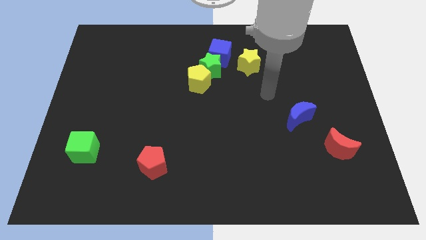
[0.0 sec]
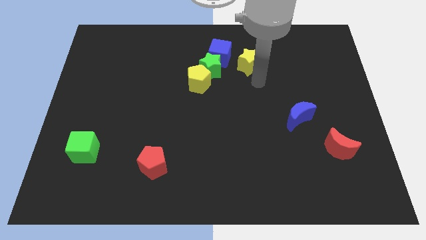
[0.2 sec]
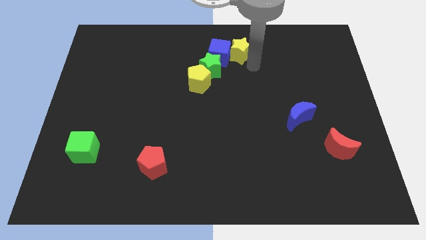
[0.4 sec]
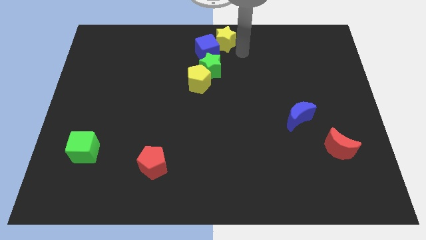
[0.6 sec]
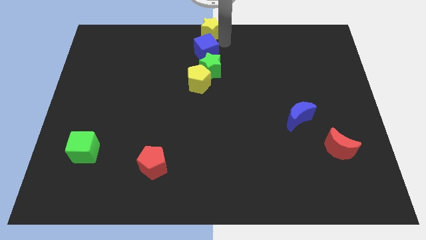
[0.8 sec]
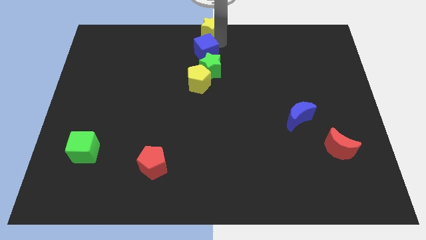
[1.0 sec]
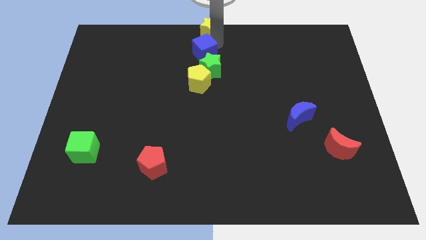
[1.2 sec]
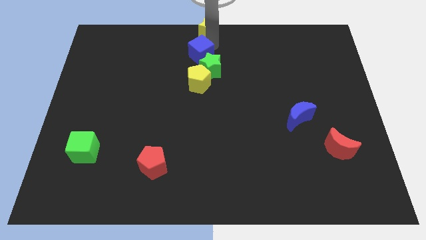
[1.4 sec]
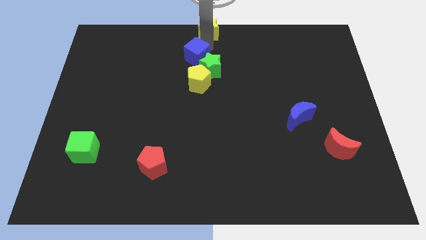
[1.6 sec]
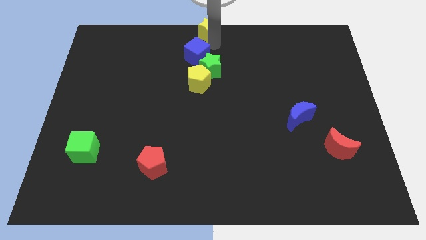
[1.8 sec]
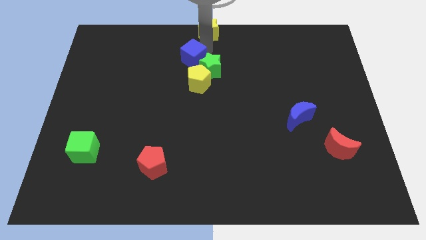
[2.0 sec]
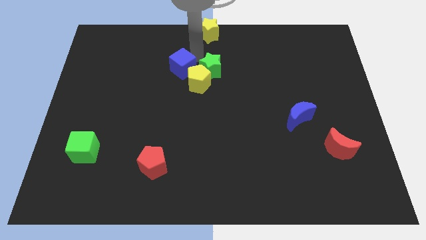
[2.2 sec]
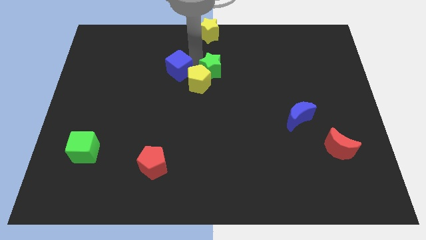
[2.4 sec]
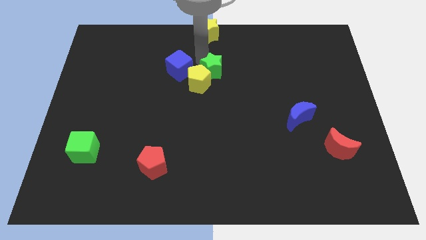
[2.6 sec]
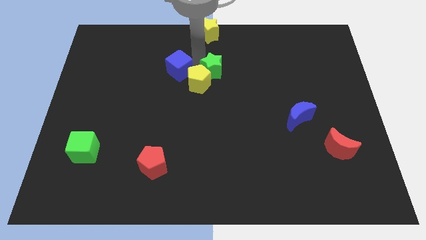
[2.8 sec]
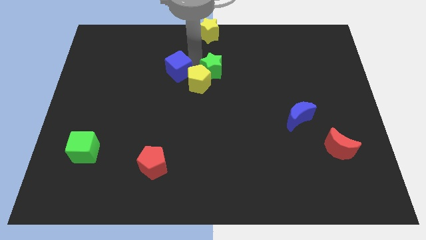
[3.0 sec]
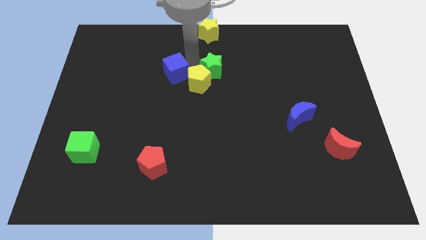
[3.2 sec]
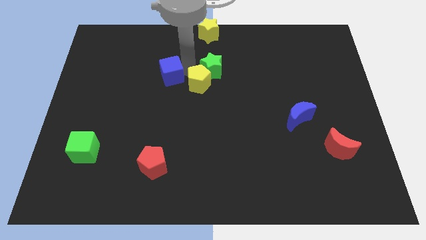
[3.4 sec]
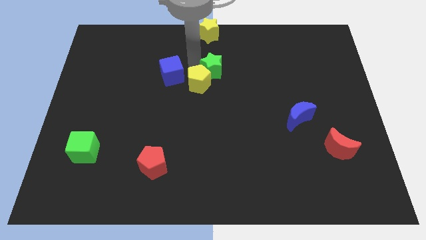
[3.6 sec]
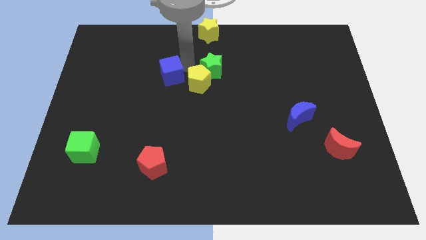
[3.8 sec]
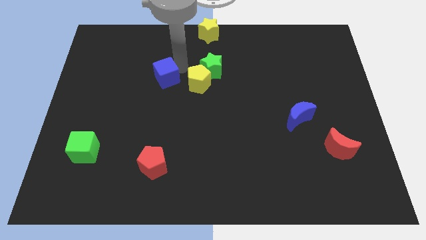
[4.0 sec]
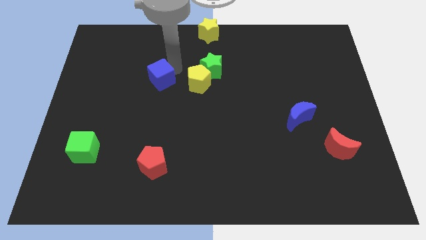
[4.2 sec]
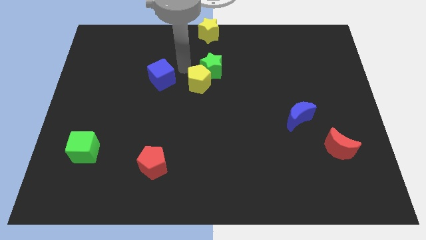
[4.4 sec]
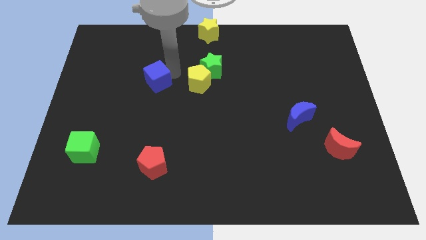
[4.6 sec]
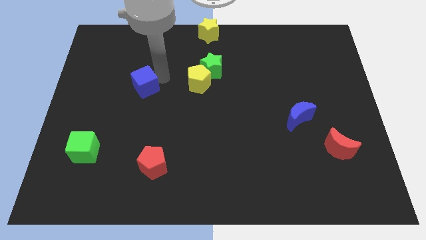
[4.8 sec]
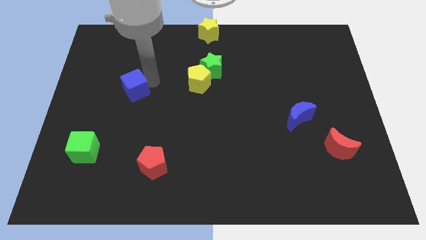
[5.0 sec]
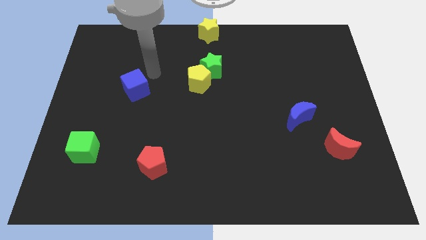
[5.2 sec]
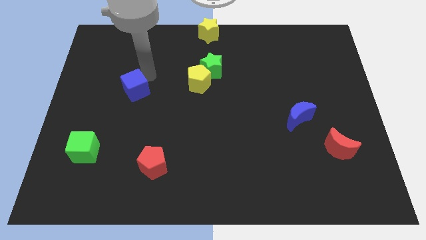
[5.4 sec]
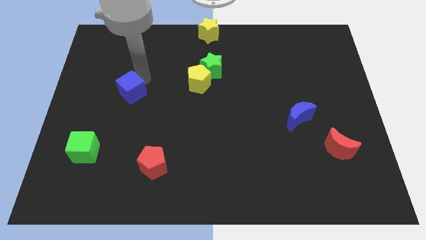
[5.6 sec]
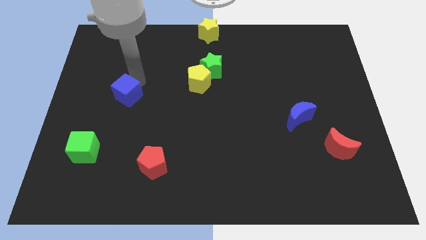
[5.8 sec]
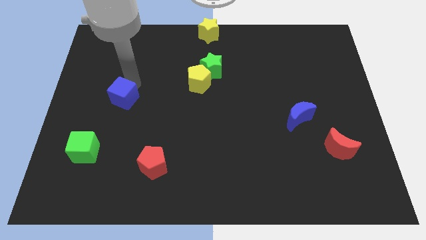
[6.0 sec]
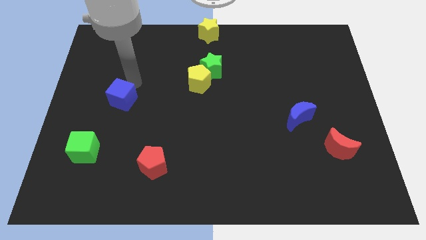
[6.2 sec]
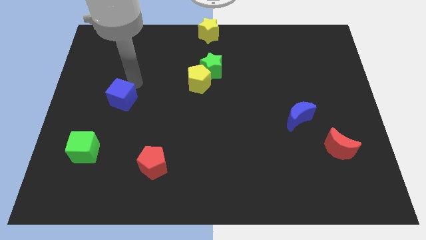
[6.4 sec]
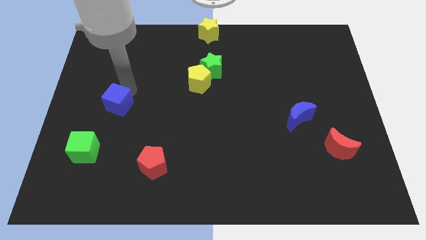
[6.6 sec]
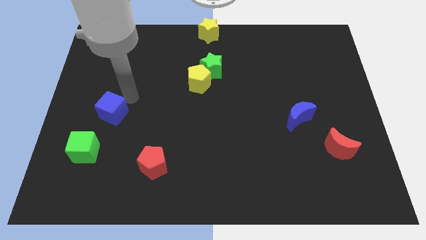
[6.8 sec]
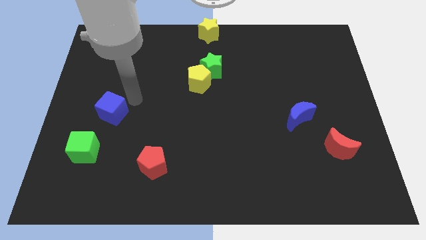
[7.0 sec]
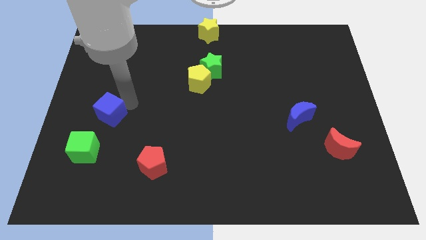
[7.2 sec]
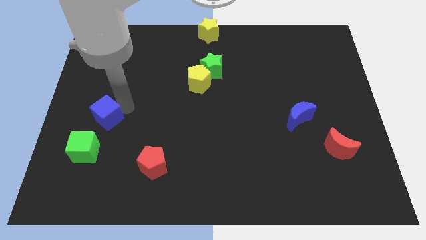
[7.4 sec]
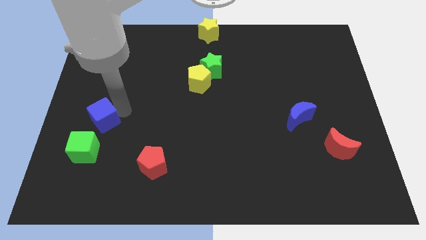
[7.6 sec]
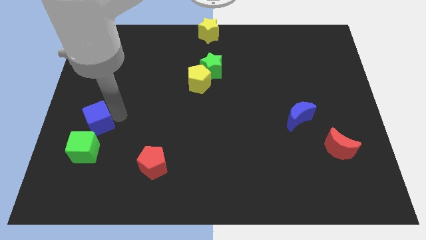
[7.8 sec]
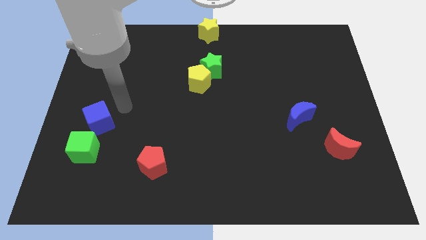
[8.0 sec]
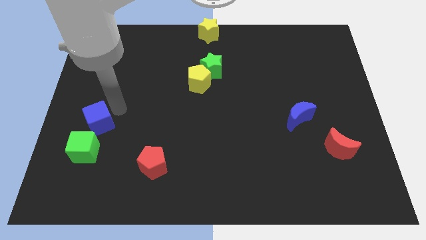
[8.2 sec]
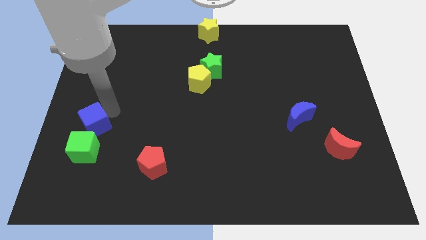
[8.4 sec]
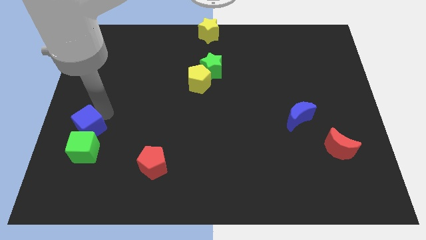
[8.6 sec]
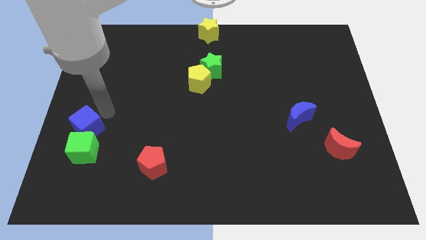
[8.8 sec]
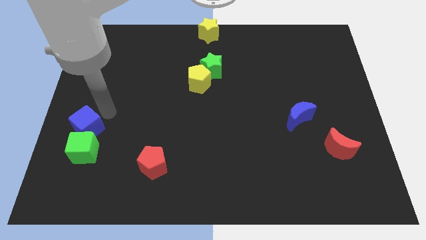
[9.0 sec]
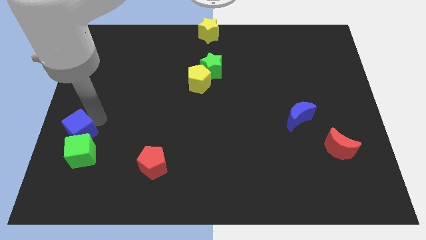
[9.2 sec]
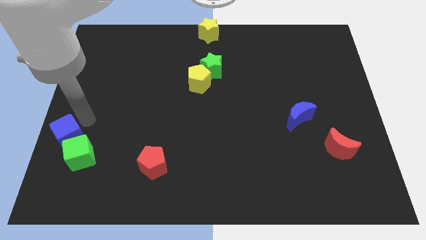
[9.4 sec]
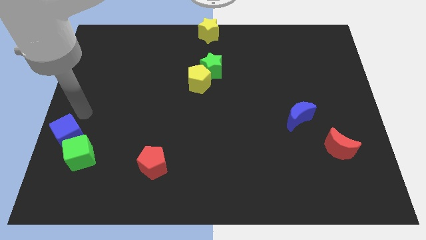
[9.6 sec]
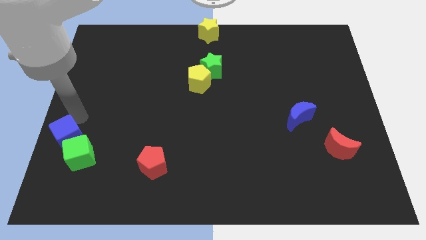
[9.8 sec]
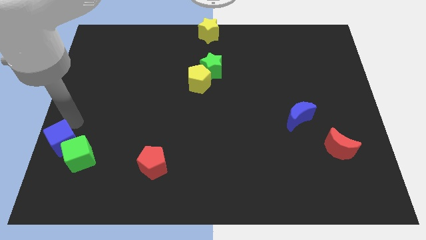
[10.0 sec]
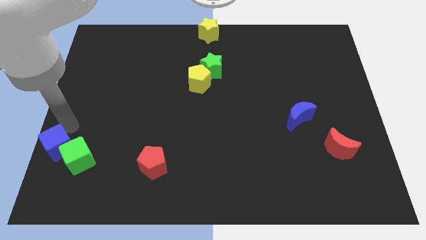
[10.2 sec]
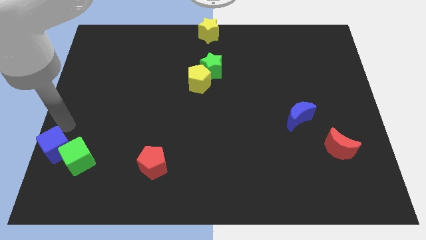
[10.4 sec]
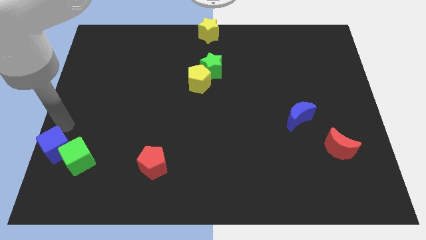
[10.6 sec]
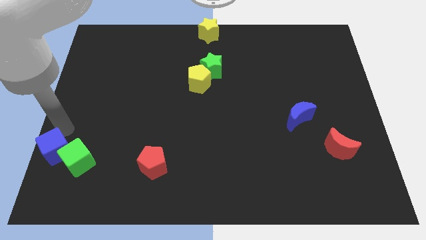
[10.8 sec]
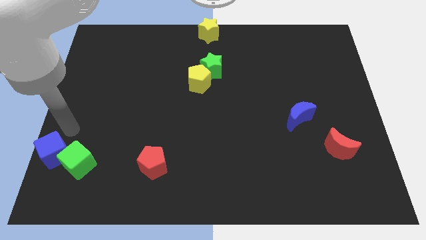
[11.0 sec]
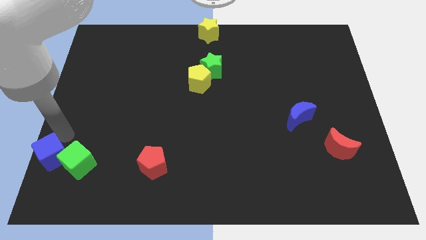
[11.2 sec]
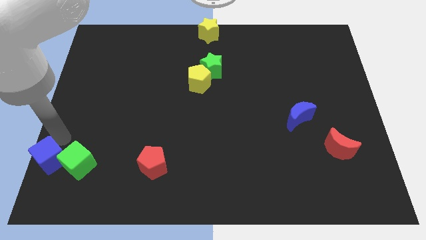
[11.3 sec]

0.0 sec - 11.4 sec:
put the blue cube to the lower left corner

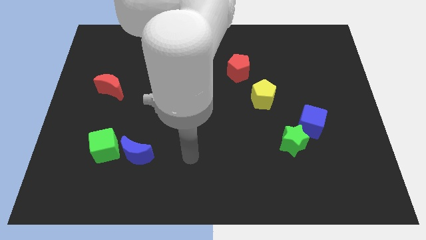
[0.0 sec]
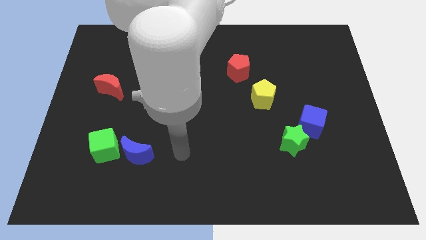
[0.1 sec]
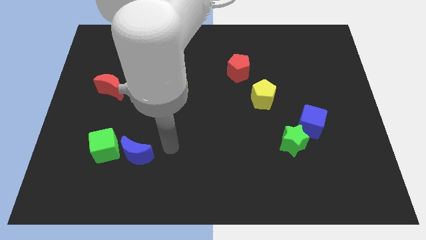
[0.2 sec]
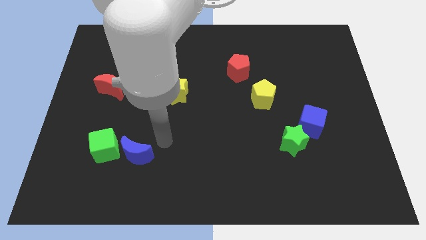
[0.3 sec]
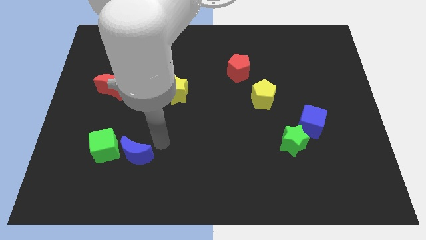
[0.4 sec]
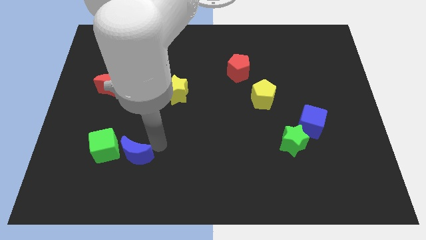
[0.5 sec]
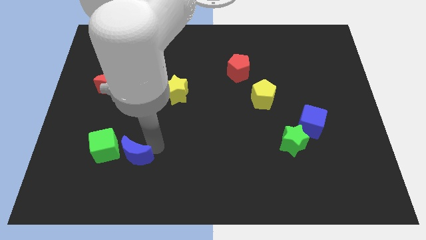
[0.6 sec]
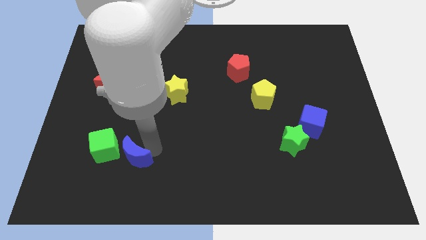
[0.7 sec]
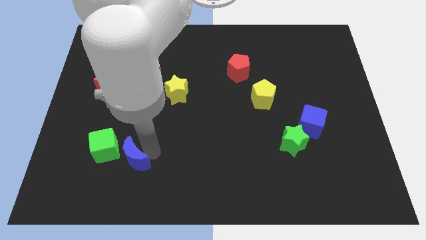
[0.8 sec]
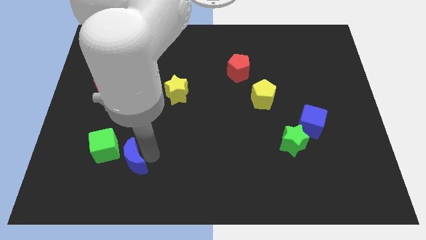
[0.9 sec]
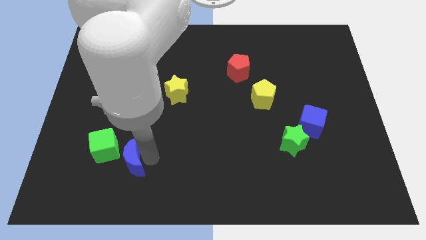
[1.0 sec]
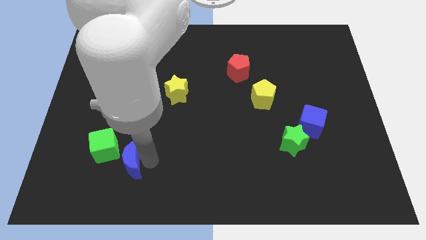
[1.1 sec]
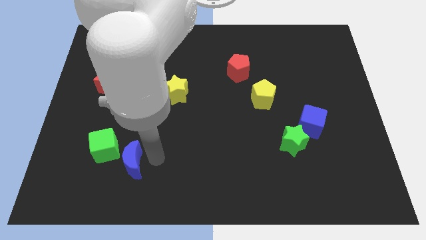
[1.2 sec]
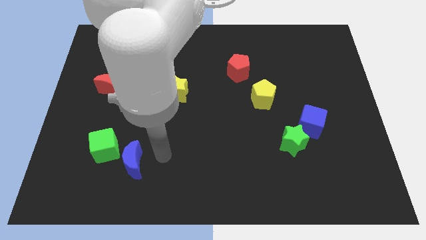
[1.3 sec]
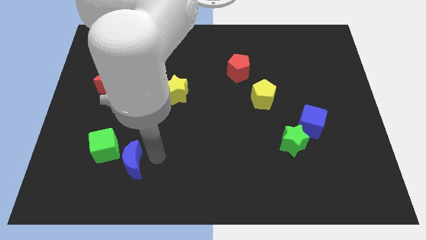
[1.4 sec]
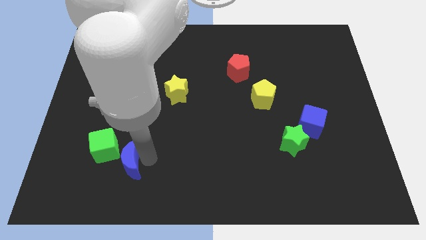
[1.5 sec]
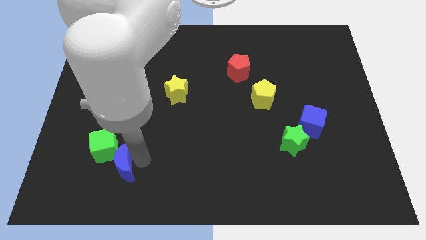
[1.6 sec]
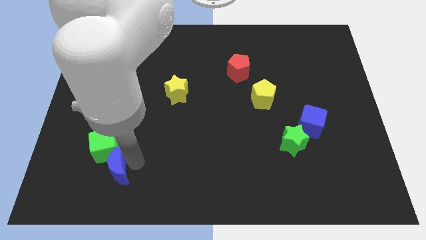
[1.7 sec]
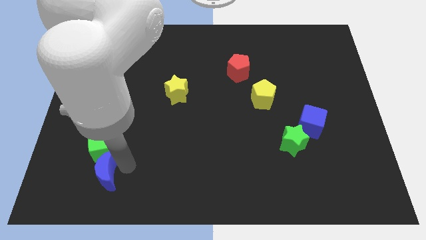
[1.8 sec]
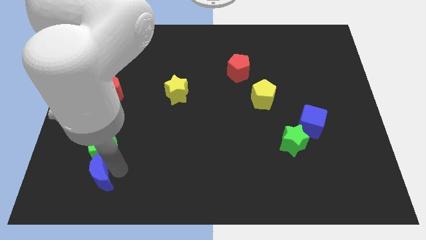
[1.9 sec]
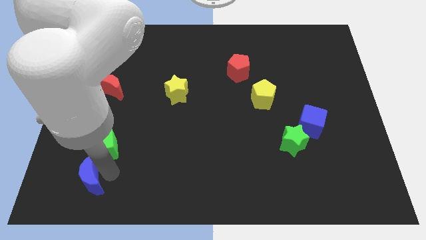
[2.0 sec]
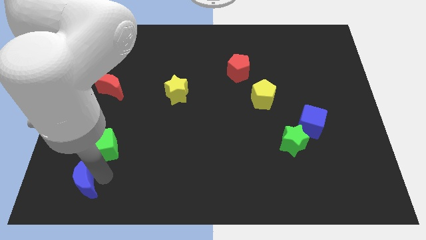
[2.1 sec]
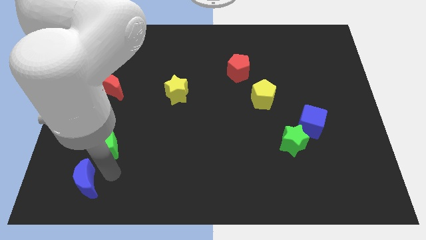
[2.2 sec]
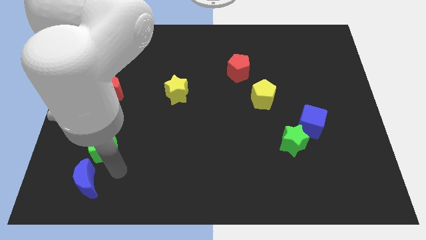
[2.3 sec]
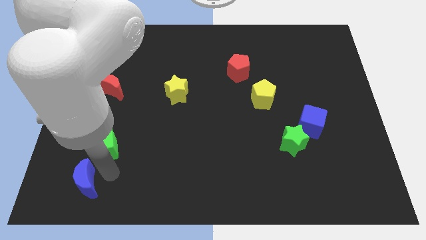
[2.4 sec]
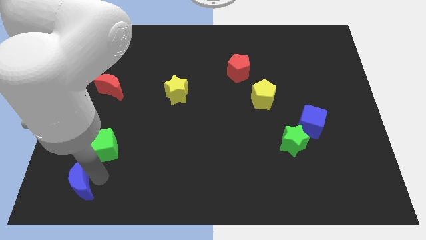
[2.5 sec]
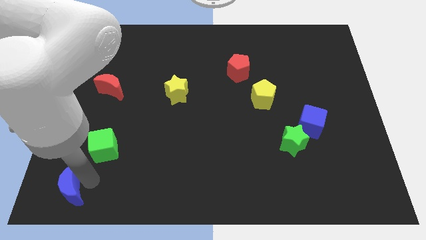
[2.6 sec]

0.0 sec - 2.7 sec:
slide the blue moon to the bottom left
